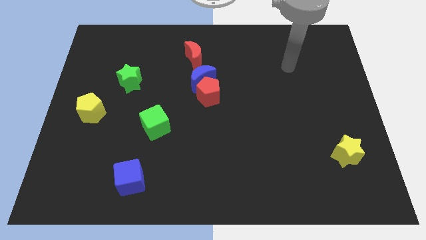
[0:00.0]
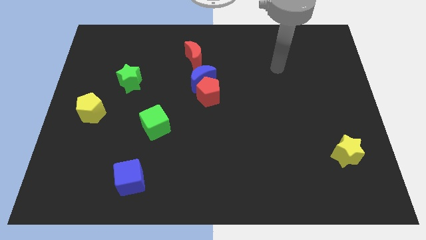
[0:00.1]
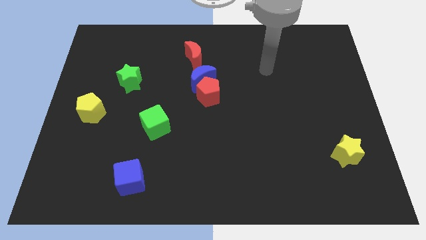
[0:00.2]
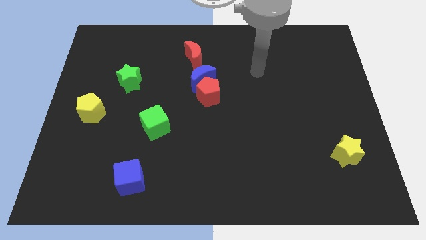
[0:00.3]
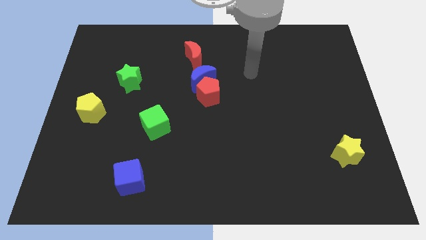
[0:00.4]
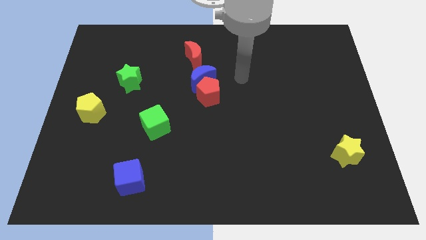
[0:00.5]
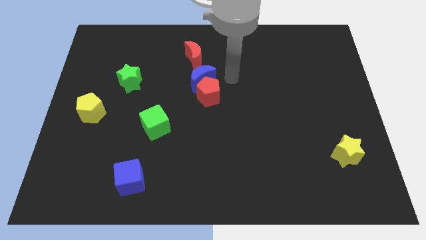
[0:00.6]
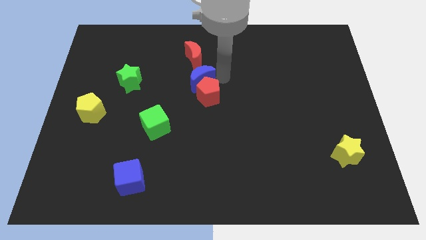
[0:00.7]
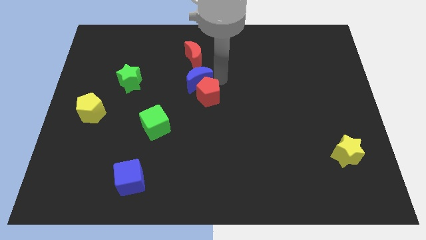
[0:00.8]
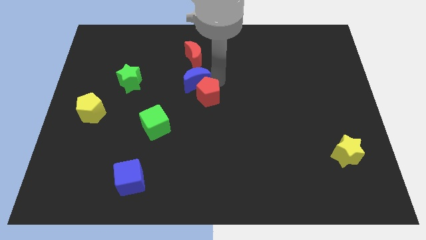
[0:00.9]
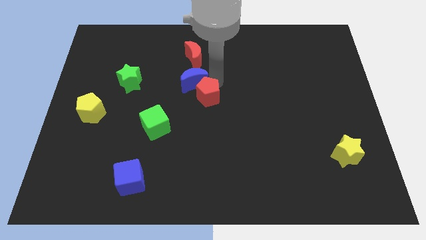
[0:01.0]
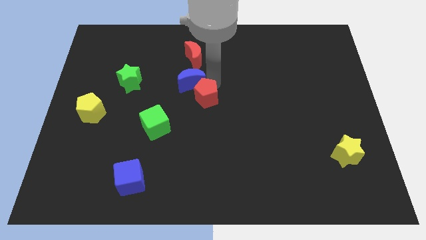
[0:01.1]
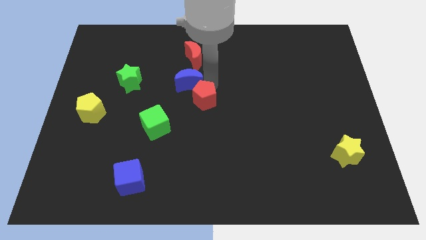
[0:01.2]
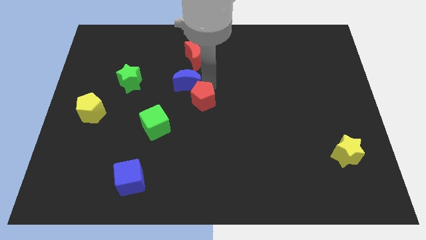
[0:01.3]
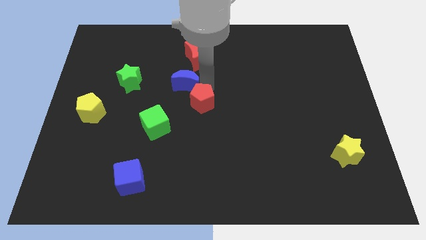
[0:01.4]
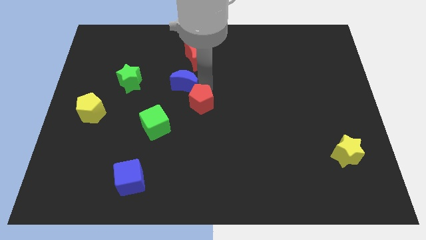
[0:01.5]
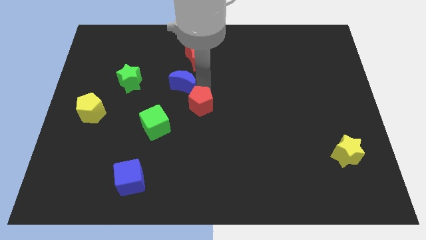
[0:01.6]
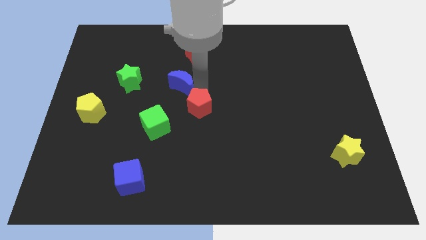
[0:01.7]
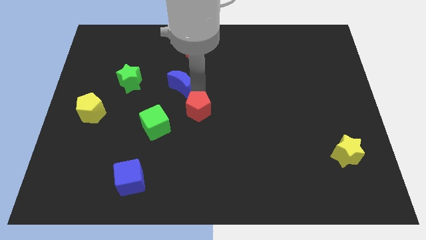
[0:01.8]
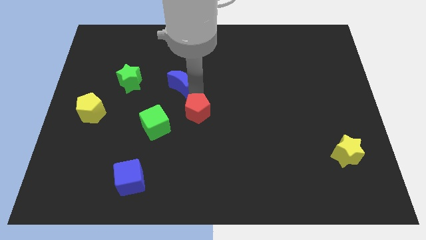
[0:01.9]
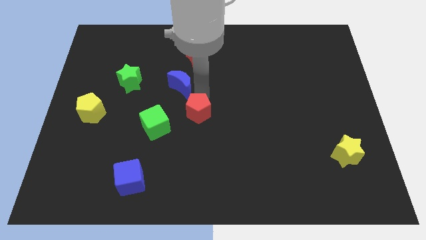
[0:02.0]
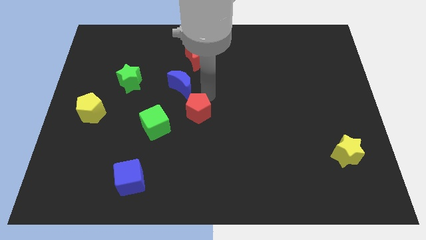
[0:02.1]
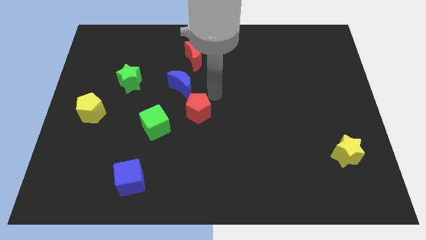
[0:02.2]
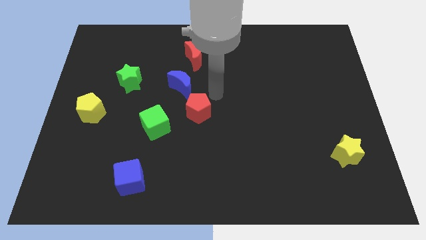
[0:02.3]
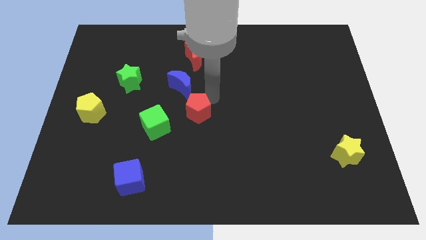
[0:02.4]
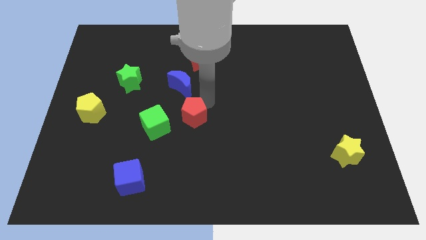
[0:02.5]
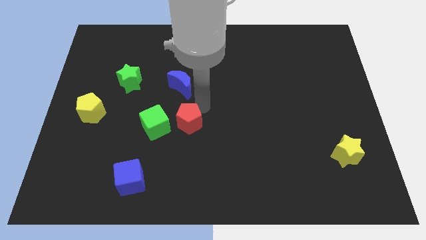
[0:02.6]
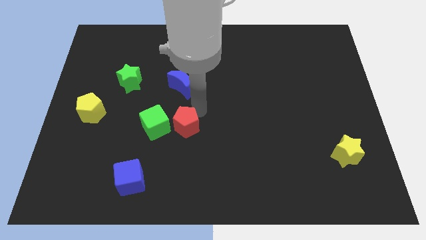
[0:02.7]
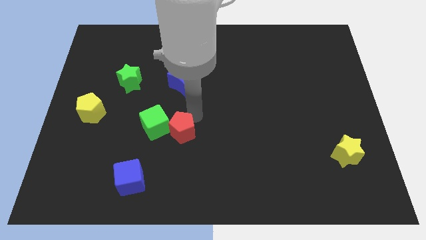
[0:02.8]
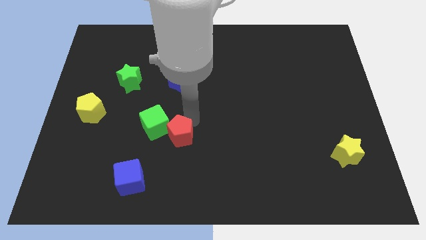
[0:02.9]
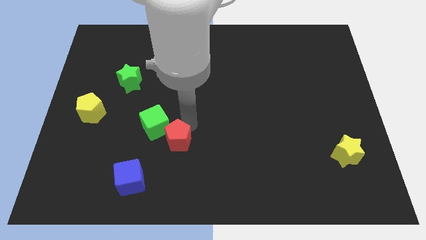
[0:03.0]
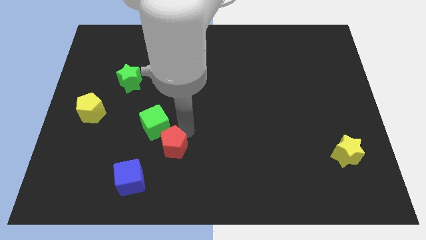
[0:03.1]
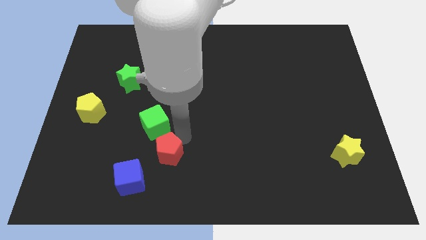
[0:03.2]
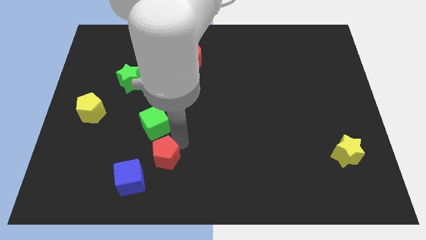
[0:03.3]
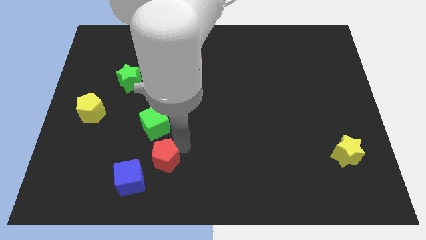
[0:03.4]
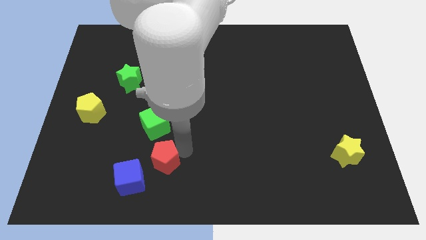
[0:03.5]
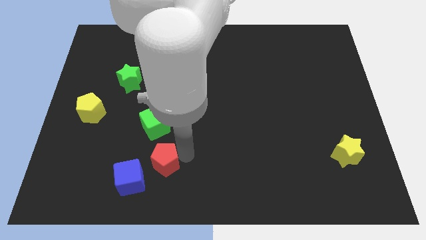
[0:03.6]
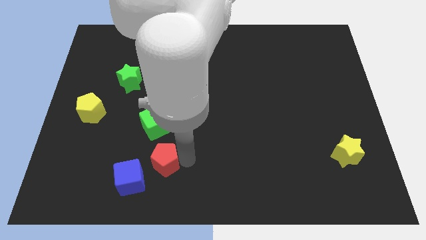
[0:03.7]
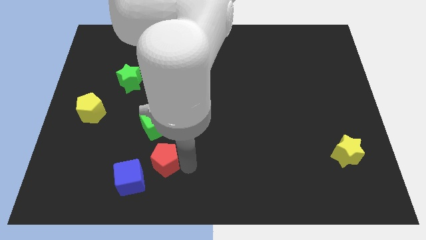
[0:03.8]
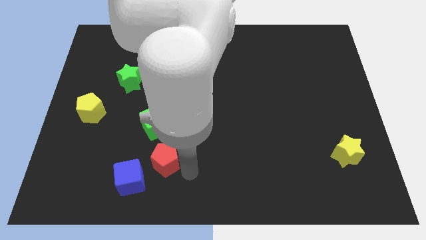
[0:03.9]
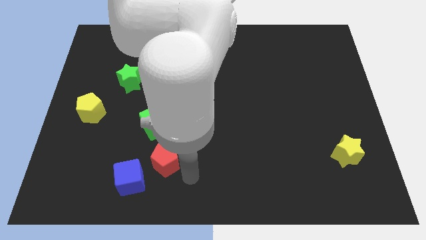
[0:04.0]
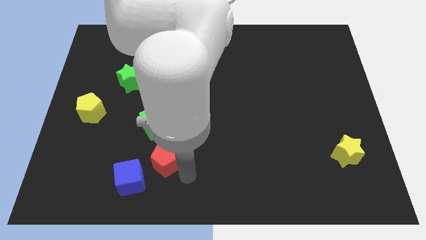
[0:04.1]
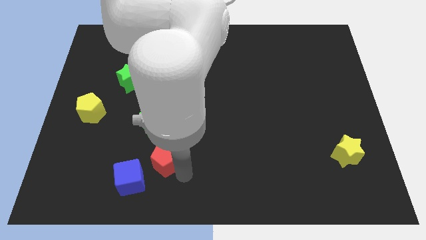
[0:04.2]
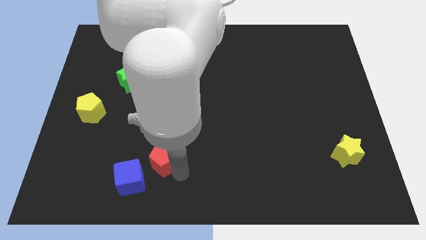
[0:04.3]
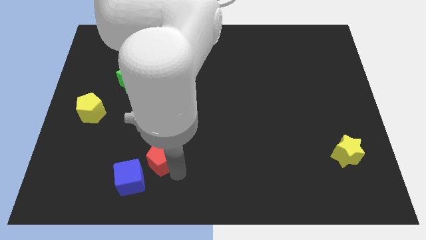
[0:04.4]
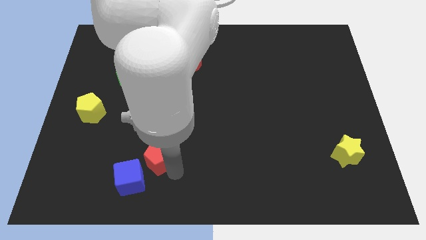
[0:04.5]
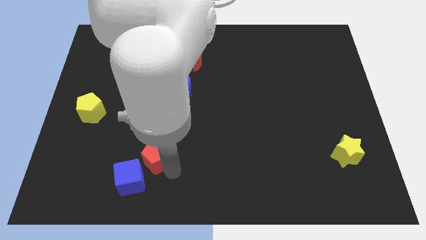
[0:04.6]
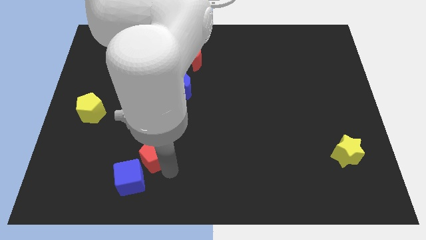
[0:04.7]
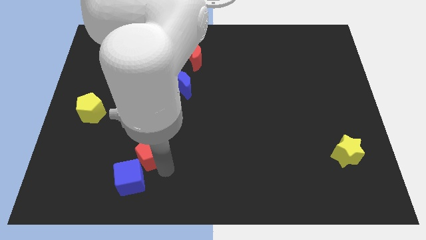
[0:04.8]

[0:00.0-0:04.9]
move the red pentagon downwards and then left

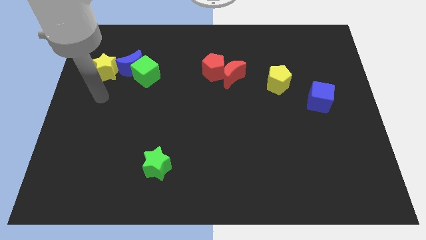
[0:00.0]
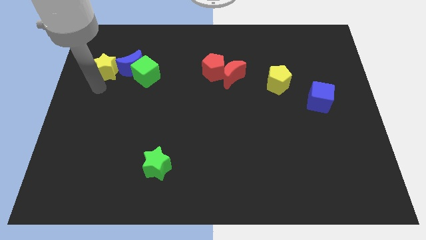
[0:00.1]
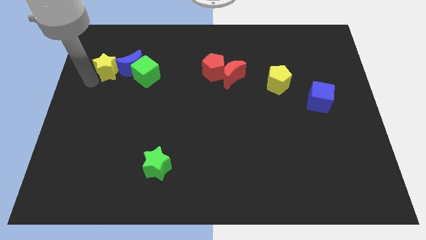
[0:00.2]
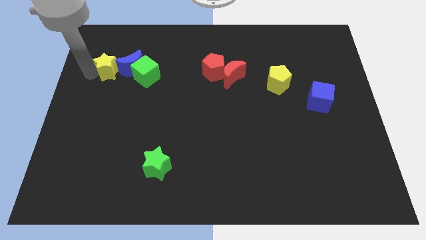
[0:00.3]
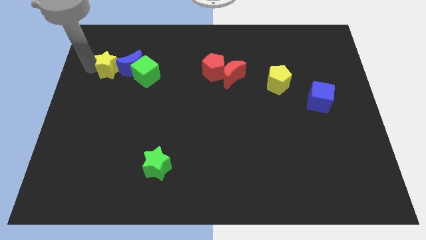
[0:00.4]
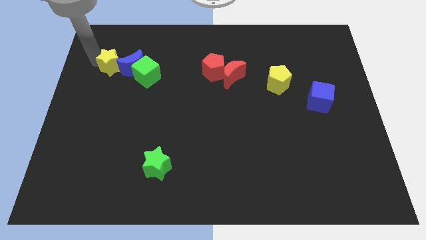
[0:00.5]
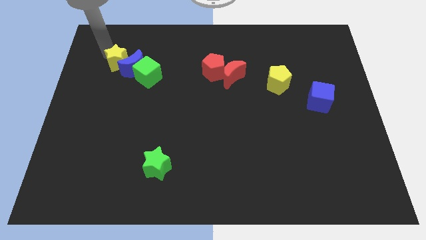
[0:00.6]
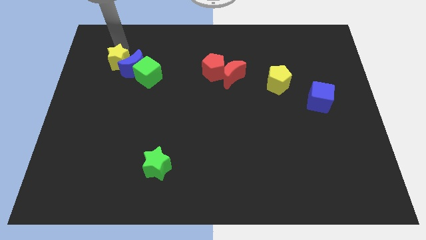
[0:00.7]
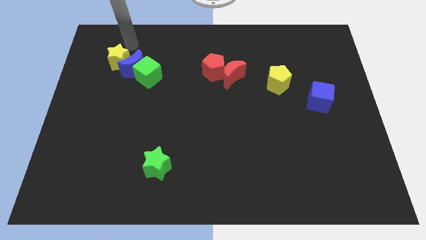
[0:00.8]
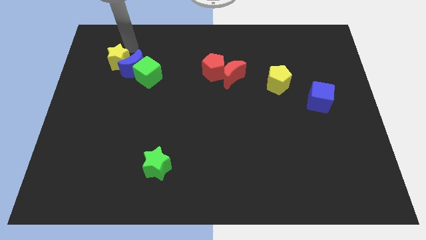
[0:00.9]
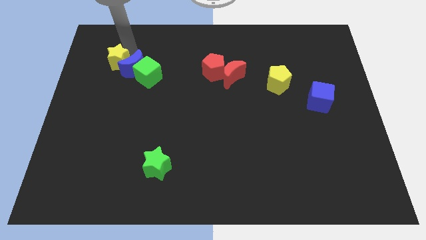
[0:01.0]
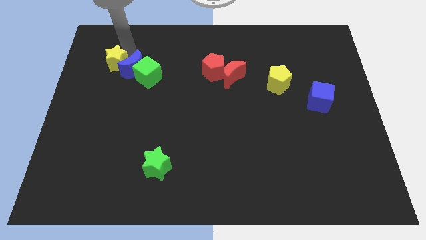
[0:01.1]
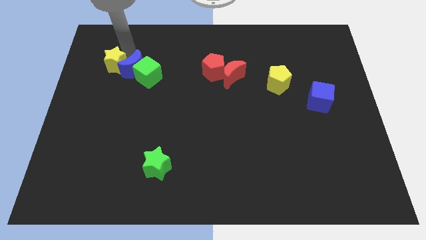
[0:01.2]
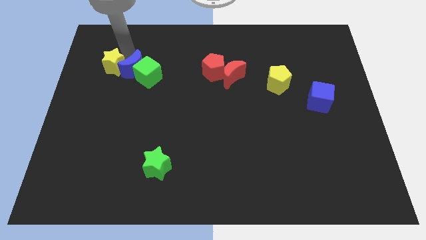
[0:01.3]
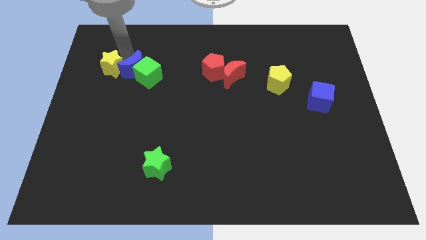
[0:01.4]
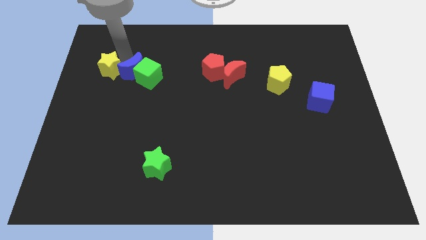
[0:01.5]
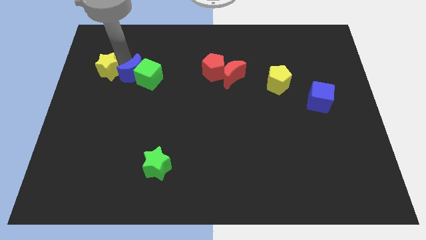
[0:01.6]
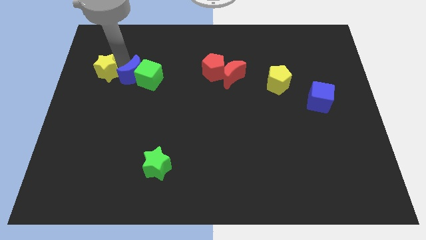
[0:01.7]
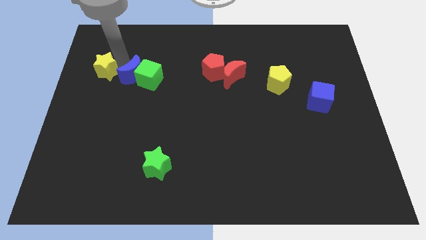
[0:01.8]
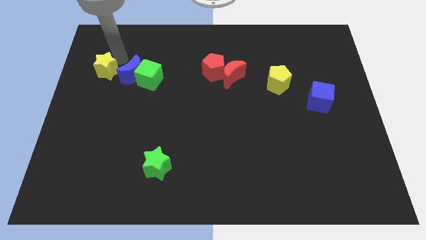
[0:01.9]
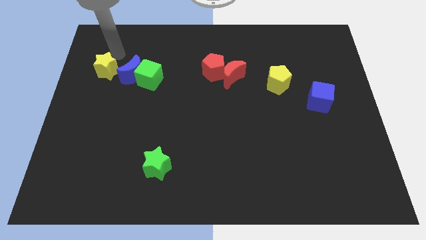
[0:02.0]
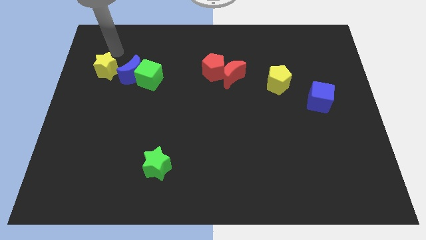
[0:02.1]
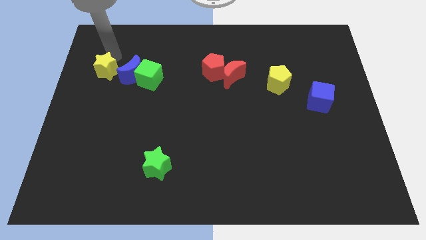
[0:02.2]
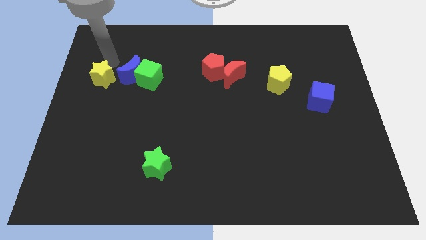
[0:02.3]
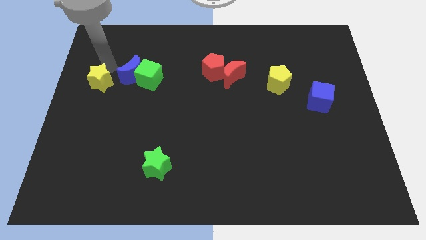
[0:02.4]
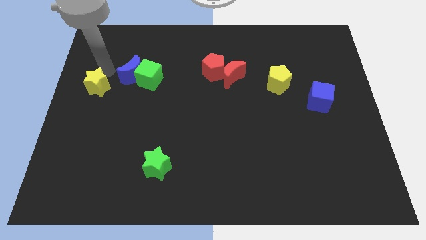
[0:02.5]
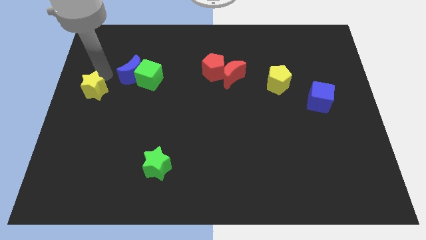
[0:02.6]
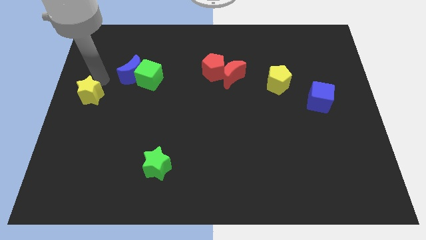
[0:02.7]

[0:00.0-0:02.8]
slide the yellow star somewhat down

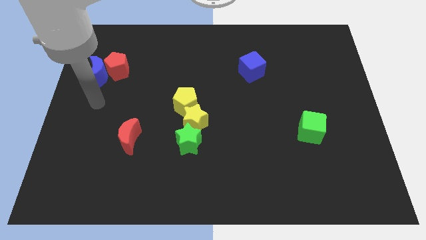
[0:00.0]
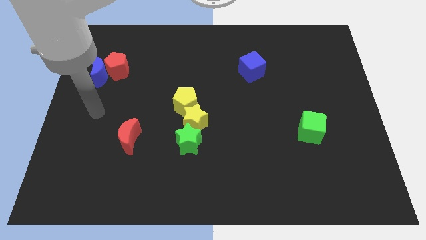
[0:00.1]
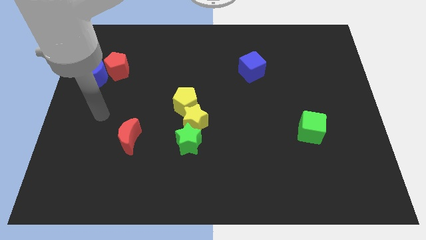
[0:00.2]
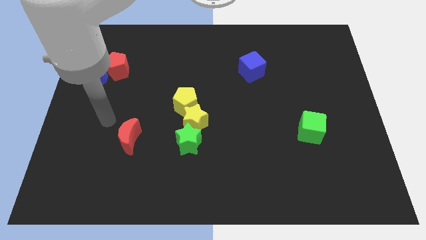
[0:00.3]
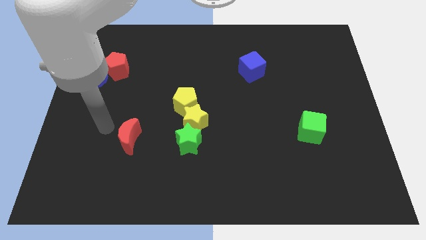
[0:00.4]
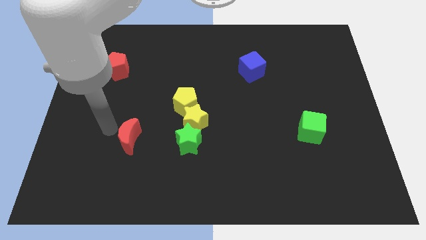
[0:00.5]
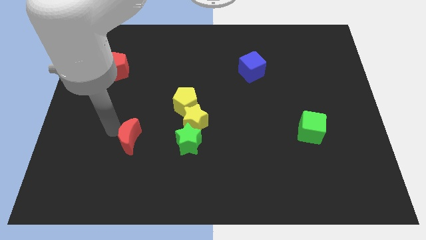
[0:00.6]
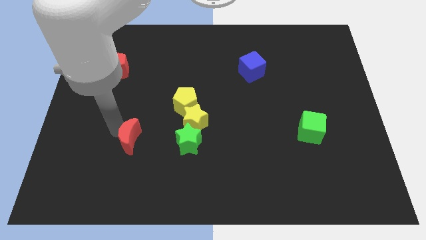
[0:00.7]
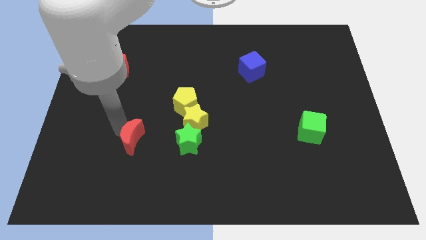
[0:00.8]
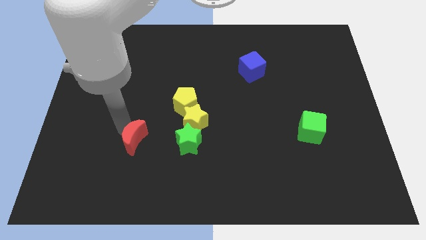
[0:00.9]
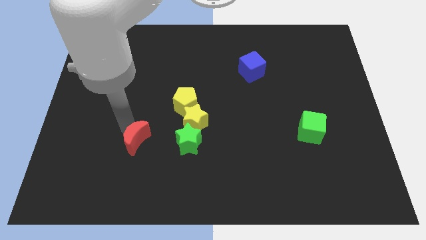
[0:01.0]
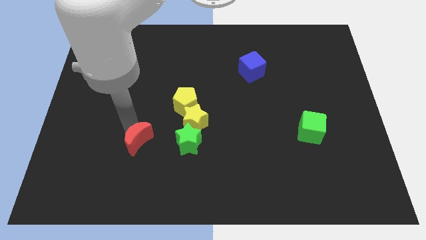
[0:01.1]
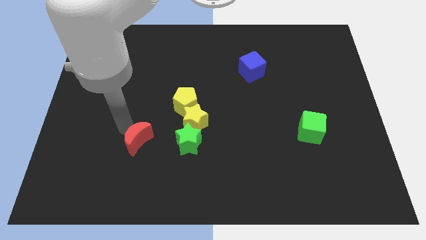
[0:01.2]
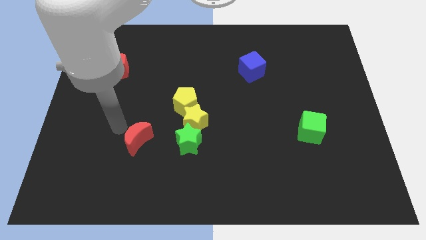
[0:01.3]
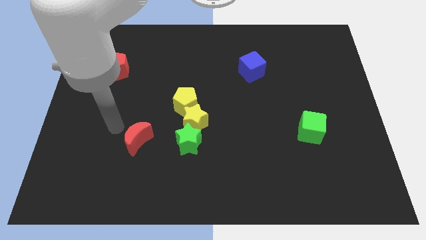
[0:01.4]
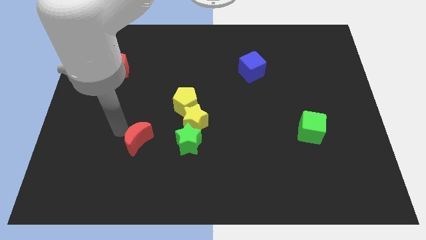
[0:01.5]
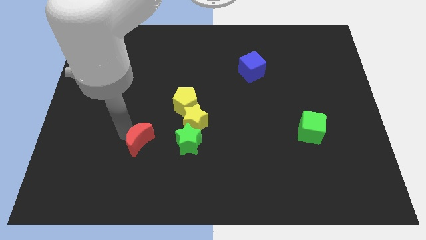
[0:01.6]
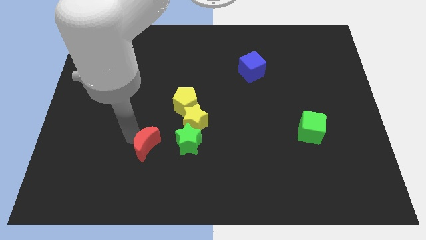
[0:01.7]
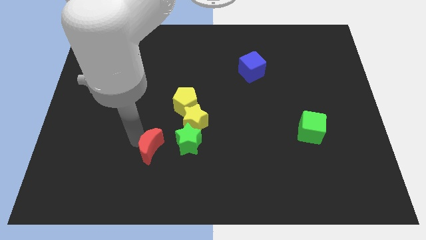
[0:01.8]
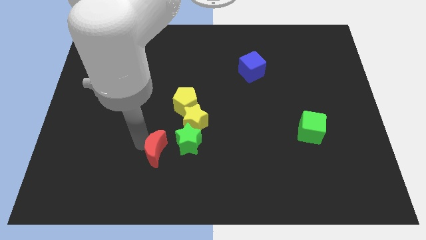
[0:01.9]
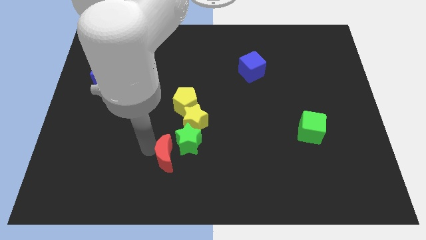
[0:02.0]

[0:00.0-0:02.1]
slightly move the red moon right
